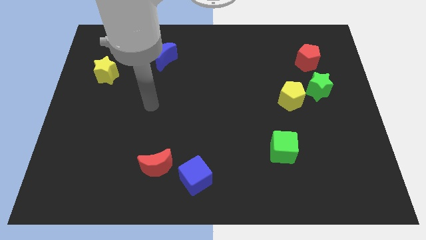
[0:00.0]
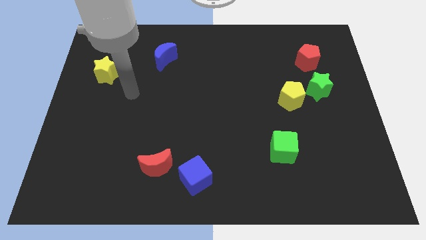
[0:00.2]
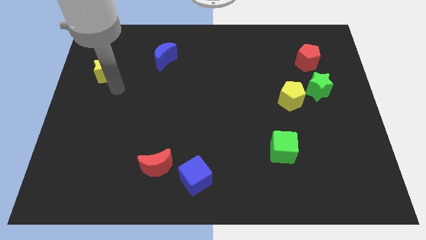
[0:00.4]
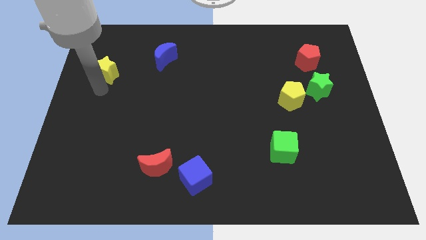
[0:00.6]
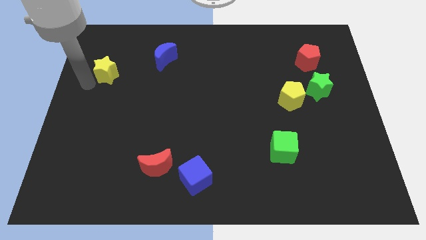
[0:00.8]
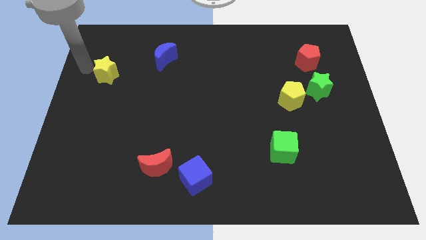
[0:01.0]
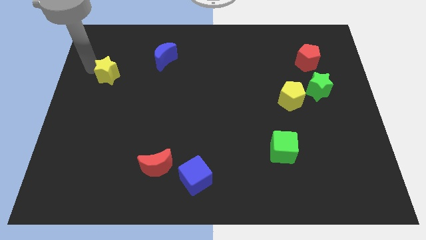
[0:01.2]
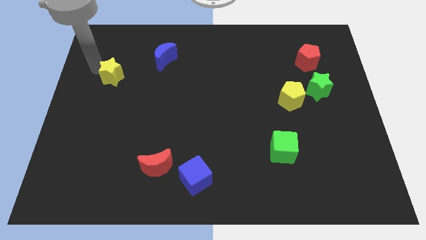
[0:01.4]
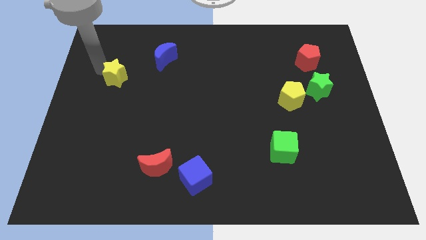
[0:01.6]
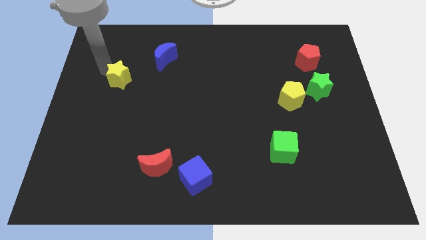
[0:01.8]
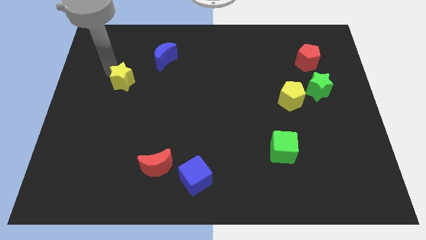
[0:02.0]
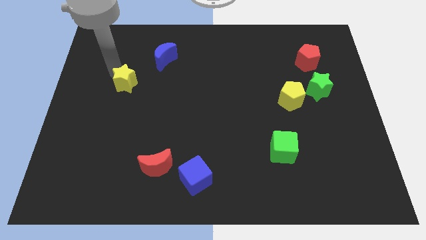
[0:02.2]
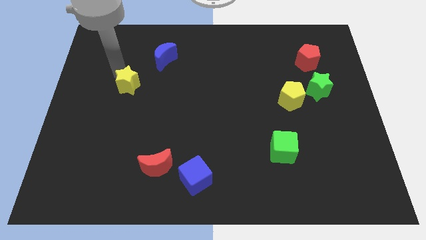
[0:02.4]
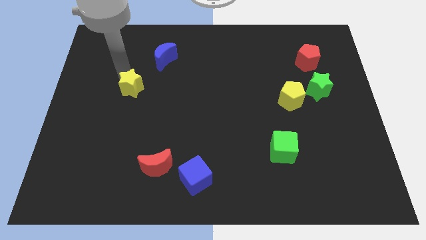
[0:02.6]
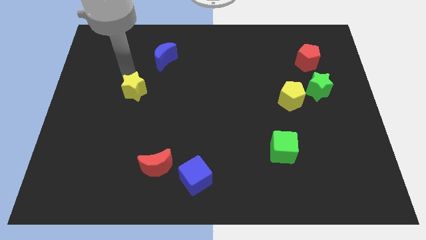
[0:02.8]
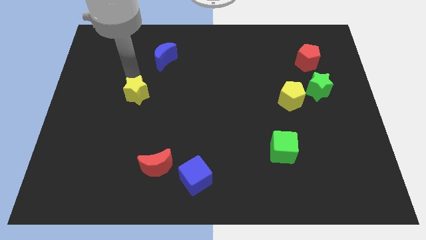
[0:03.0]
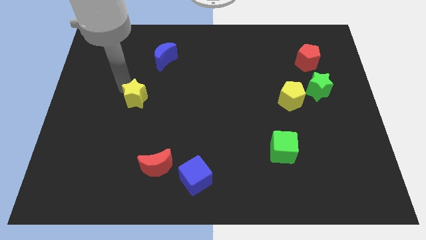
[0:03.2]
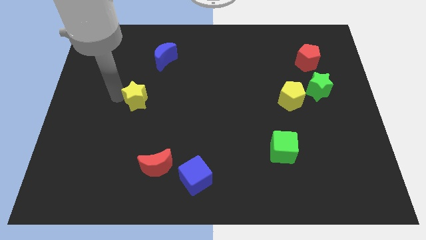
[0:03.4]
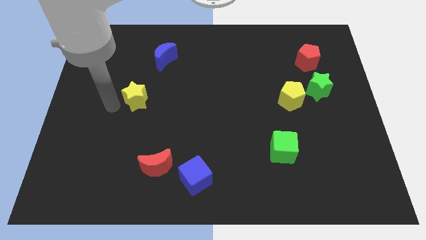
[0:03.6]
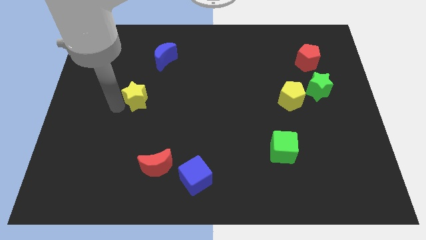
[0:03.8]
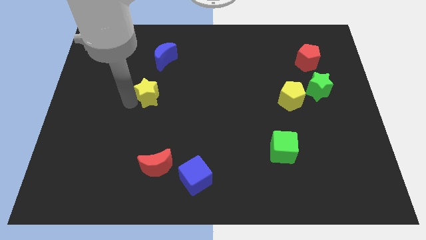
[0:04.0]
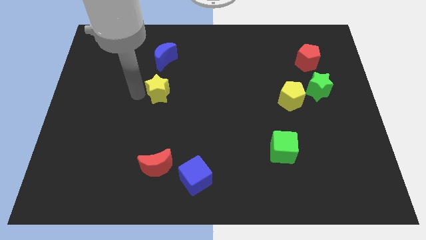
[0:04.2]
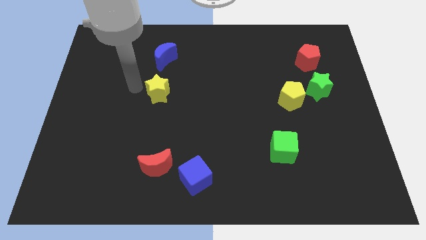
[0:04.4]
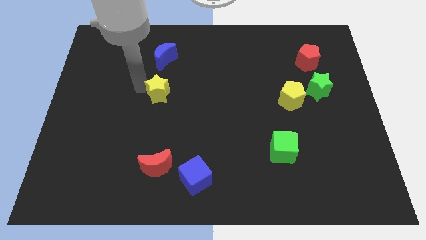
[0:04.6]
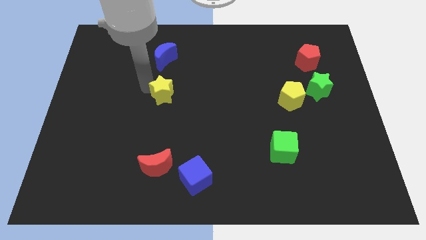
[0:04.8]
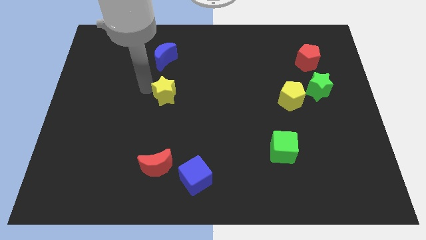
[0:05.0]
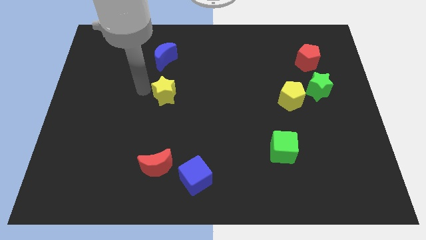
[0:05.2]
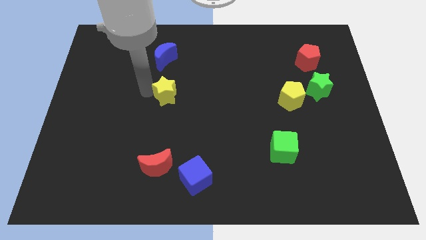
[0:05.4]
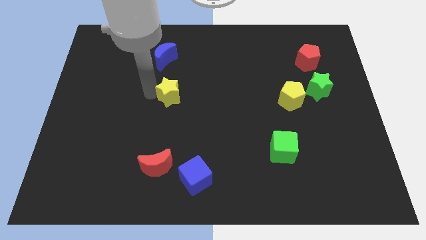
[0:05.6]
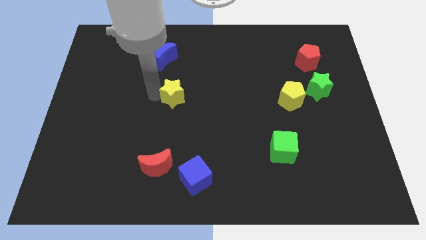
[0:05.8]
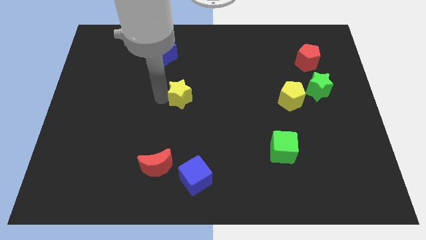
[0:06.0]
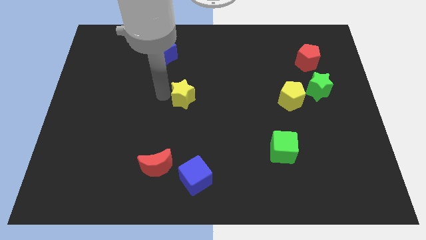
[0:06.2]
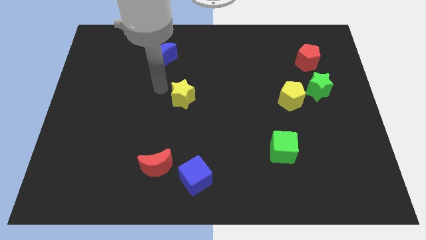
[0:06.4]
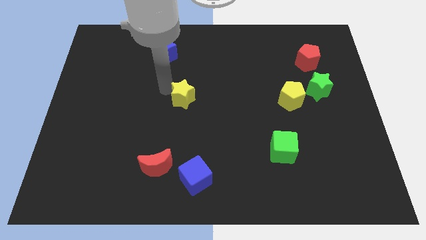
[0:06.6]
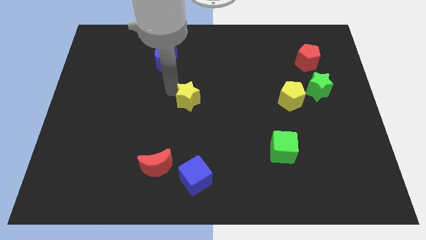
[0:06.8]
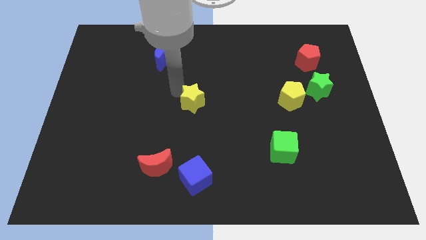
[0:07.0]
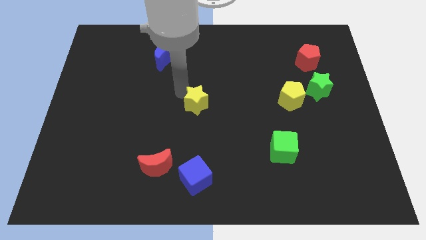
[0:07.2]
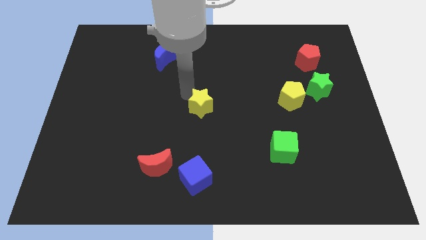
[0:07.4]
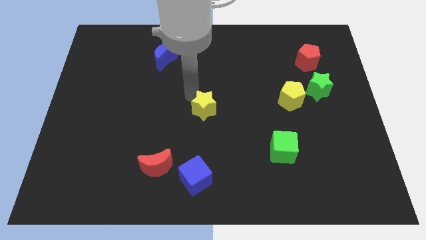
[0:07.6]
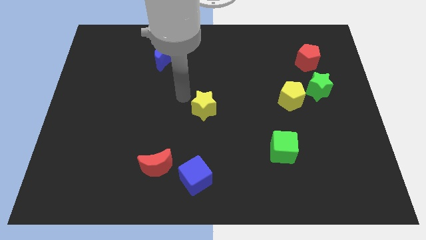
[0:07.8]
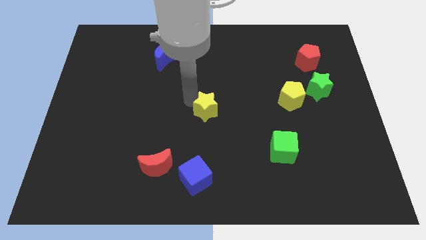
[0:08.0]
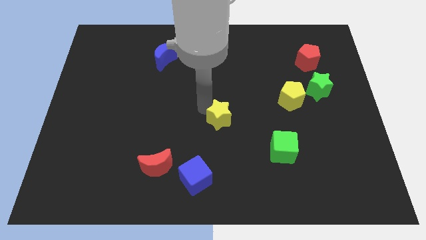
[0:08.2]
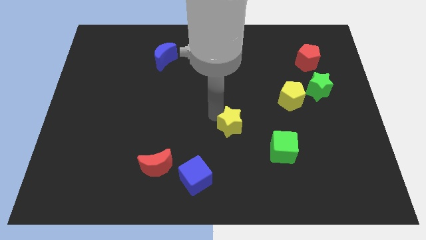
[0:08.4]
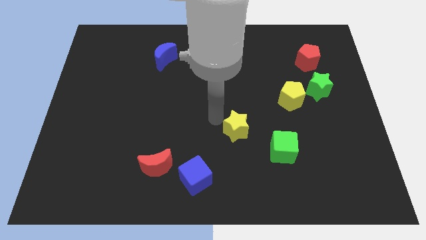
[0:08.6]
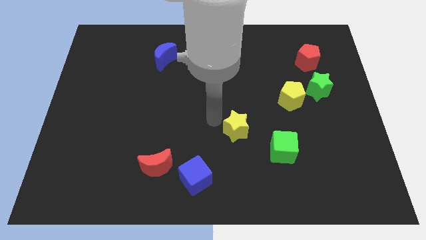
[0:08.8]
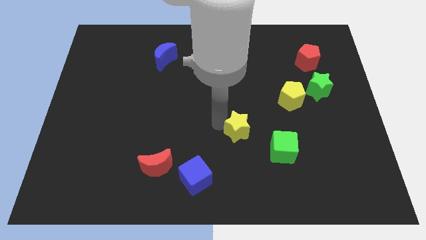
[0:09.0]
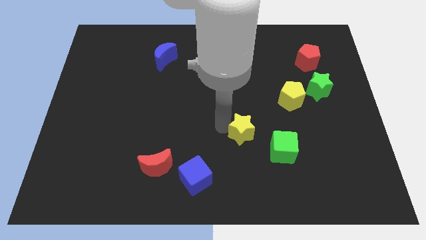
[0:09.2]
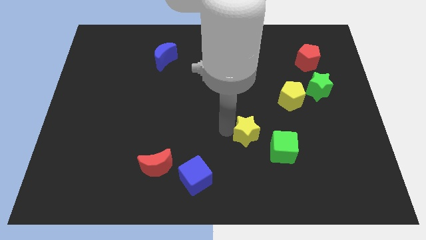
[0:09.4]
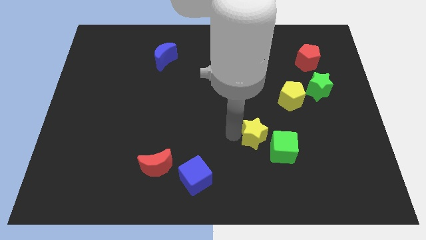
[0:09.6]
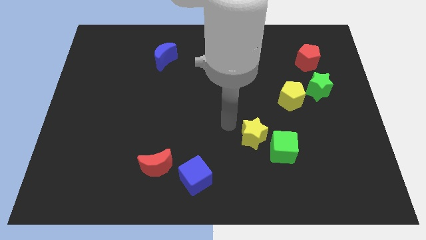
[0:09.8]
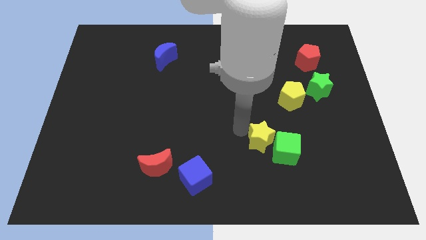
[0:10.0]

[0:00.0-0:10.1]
put the yellow star close to the green cube

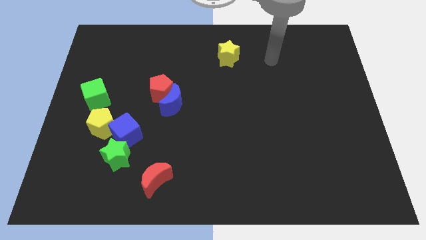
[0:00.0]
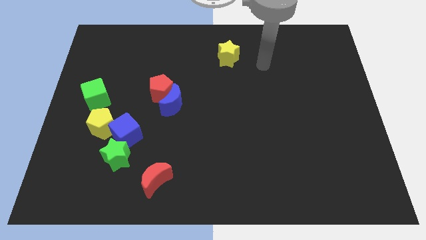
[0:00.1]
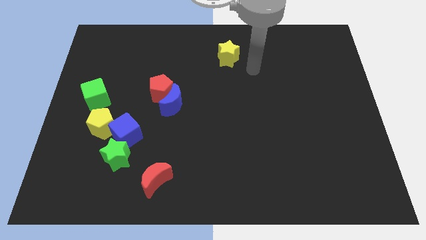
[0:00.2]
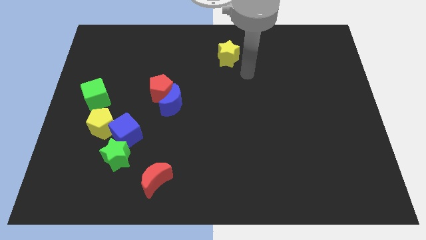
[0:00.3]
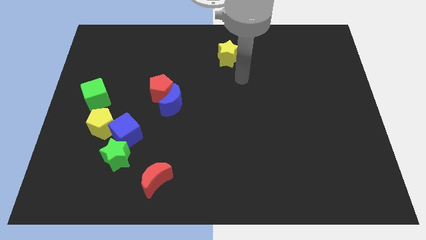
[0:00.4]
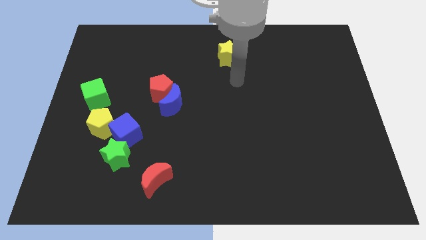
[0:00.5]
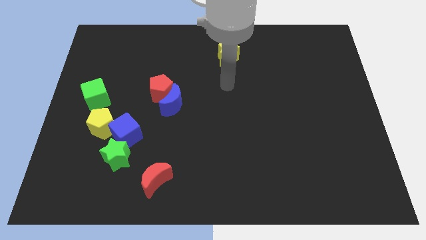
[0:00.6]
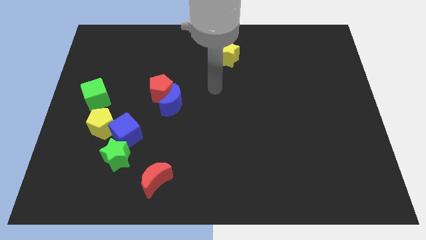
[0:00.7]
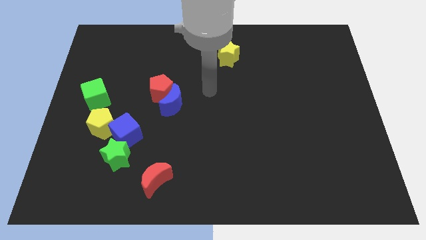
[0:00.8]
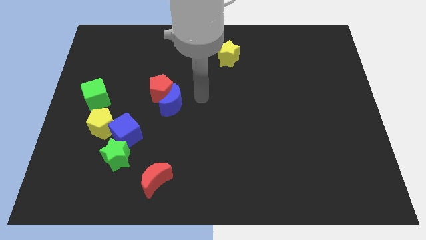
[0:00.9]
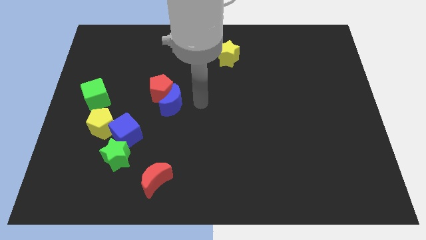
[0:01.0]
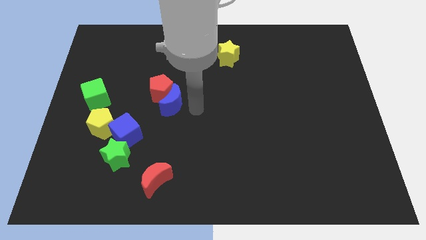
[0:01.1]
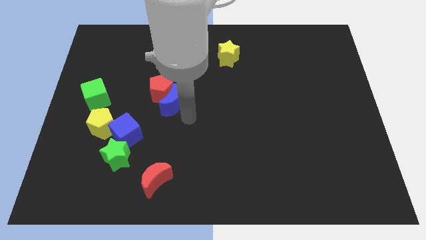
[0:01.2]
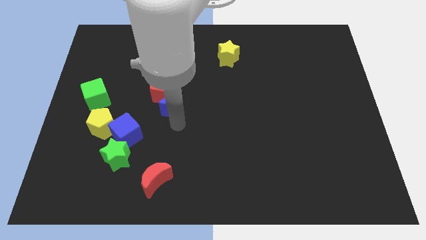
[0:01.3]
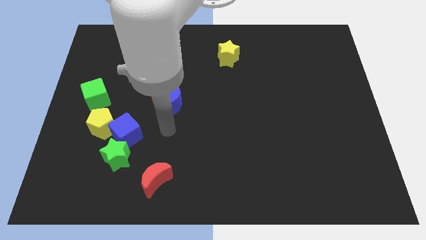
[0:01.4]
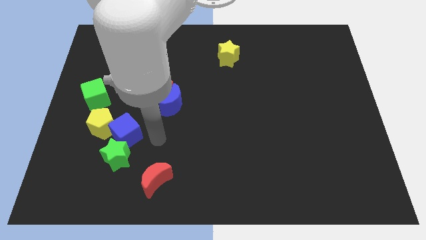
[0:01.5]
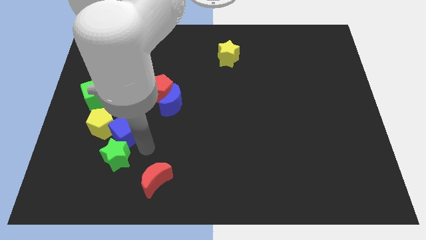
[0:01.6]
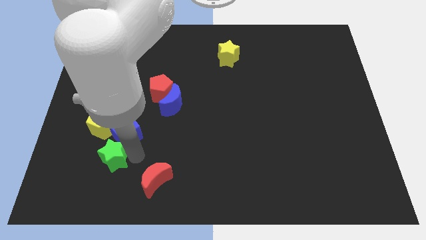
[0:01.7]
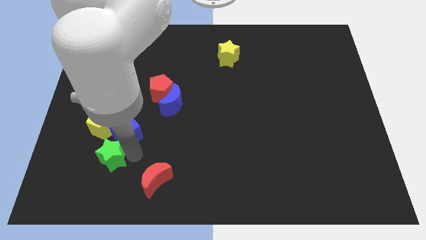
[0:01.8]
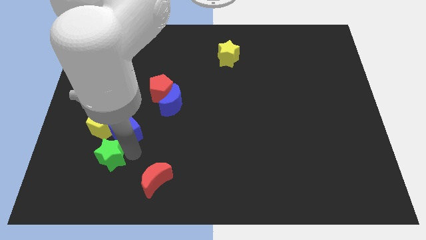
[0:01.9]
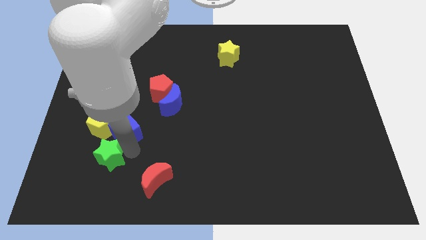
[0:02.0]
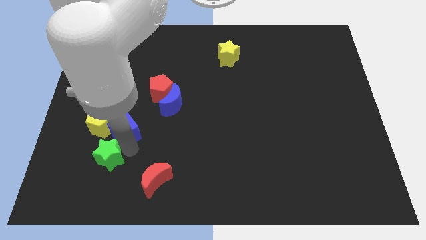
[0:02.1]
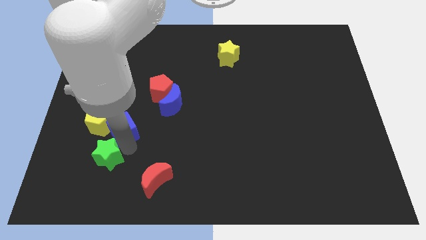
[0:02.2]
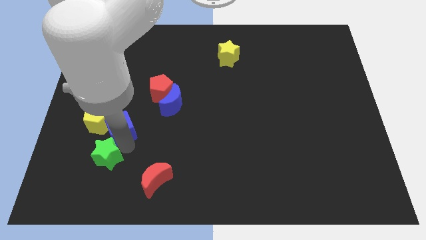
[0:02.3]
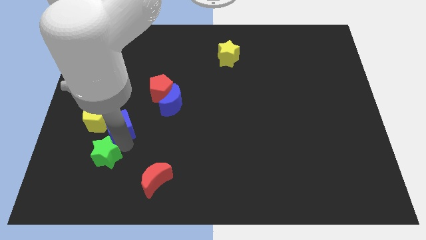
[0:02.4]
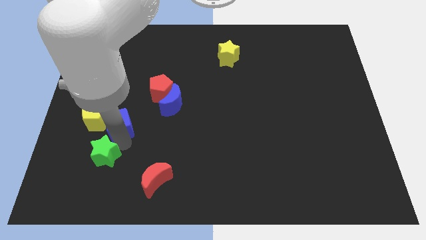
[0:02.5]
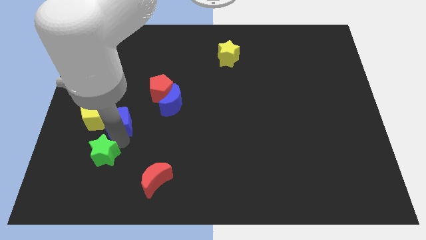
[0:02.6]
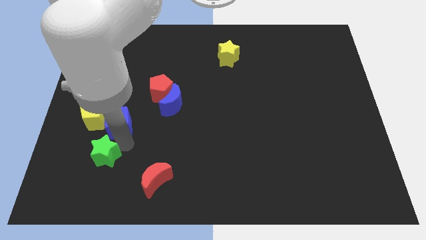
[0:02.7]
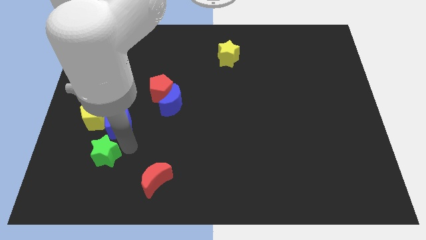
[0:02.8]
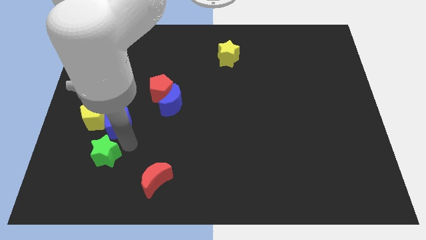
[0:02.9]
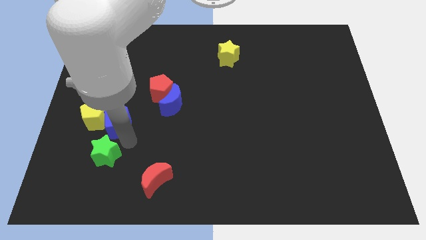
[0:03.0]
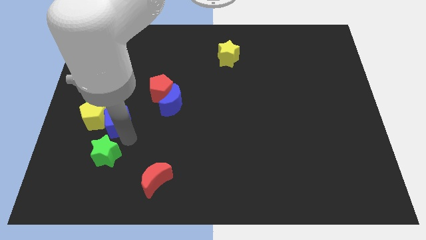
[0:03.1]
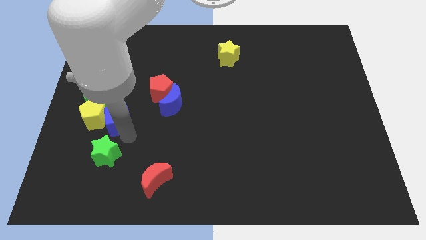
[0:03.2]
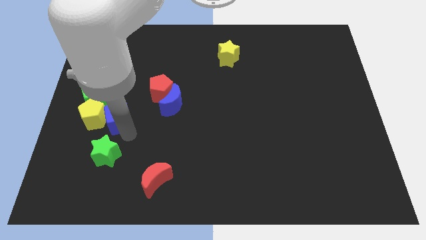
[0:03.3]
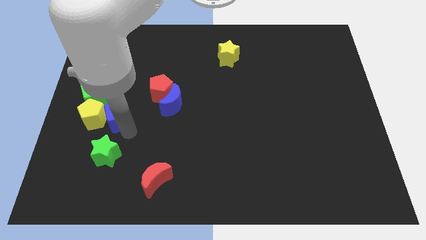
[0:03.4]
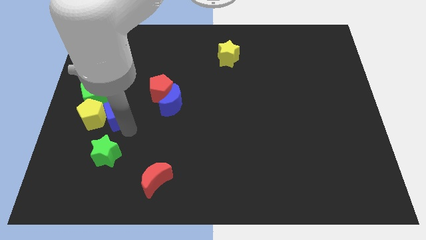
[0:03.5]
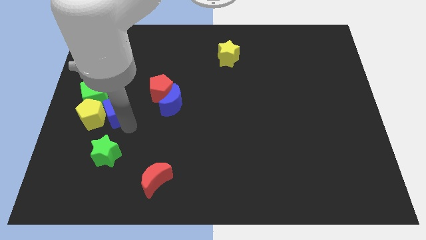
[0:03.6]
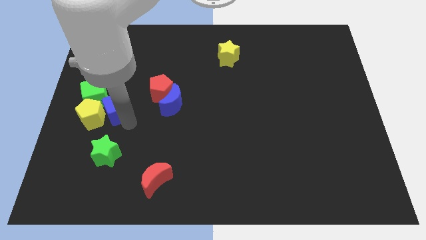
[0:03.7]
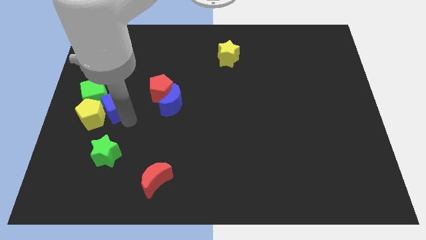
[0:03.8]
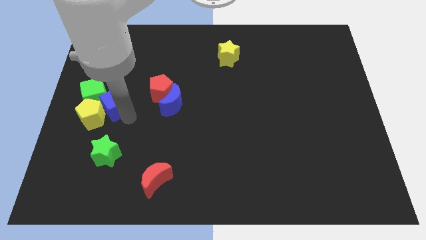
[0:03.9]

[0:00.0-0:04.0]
slide the blue cube next to the green cube
